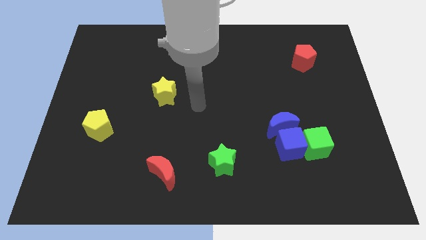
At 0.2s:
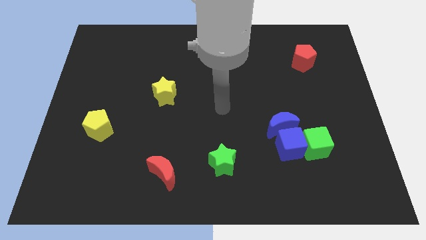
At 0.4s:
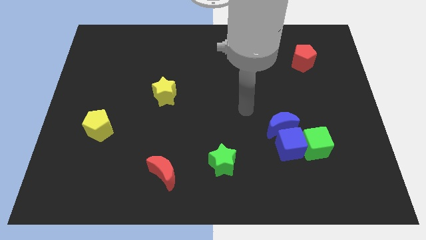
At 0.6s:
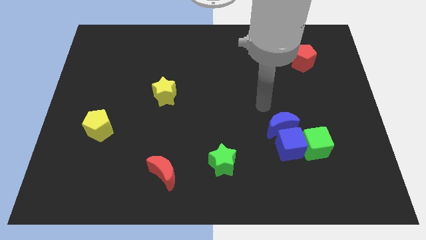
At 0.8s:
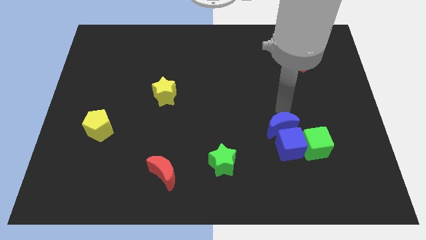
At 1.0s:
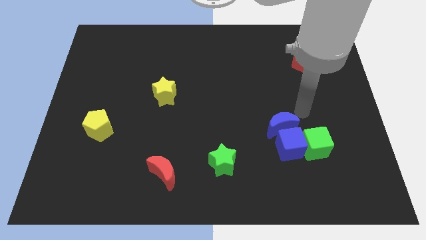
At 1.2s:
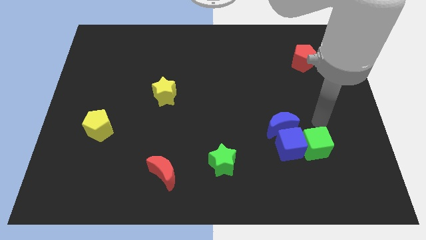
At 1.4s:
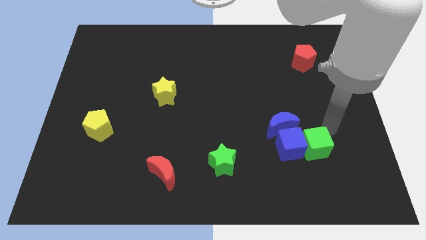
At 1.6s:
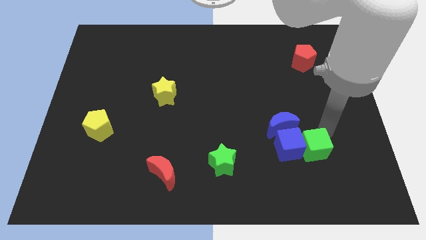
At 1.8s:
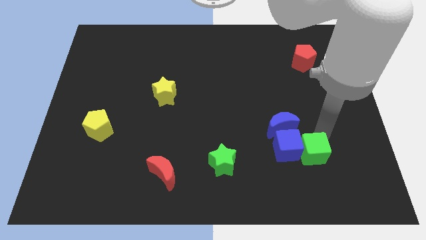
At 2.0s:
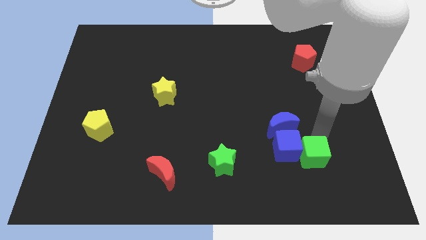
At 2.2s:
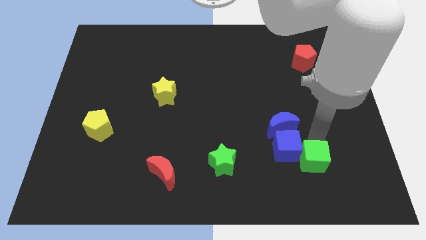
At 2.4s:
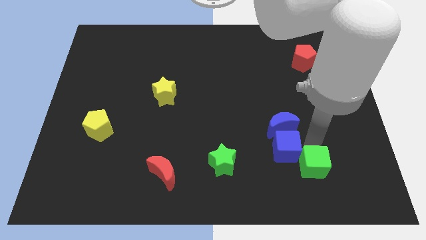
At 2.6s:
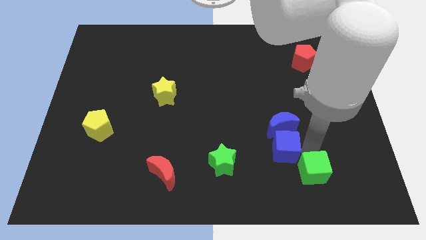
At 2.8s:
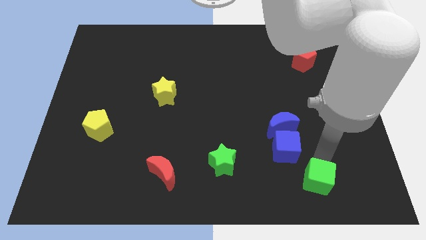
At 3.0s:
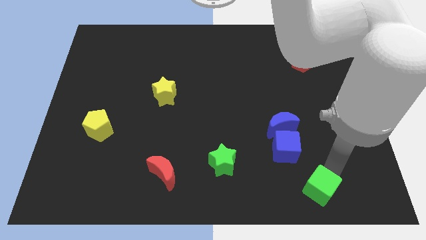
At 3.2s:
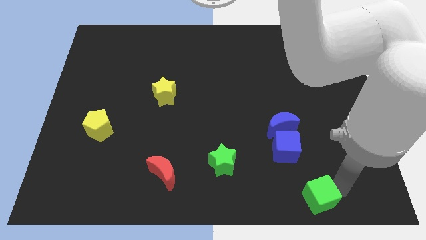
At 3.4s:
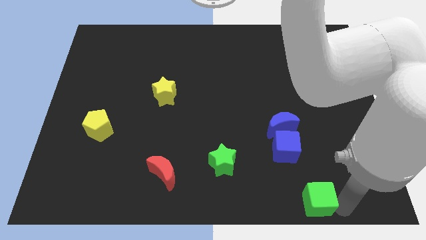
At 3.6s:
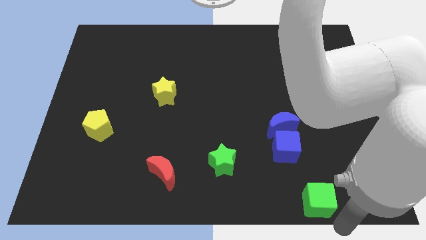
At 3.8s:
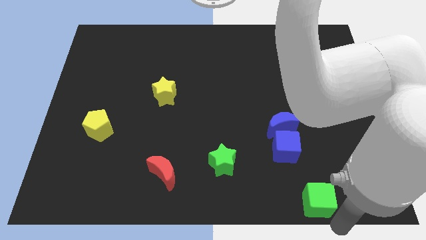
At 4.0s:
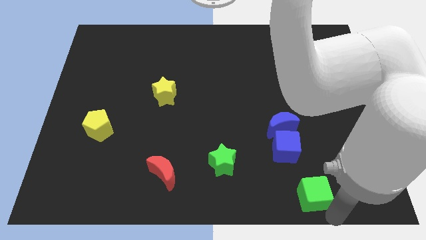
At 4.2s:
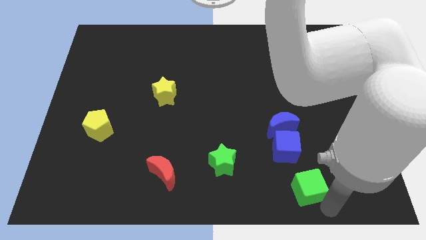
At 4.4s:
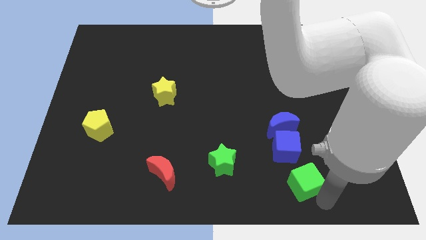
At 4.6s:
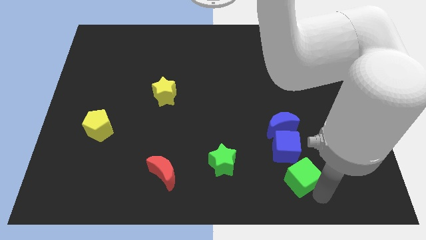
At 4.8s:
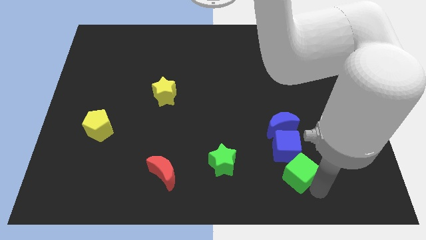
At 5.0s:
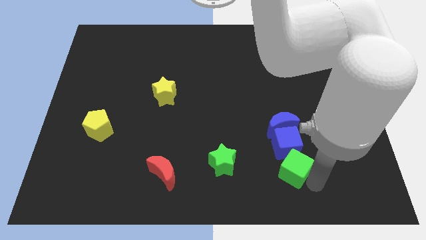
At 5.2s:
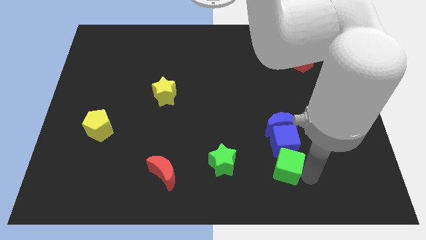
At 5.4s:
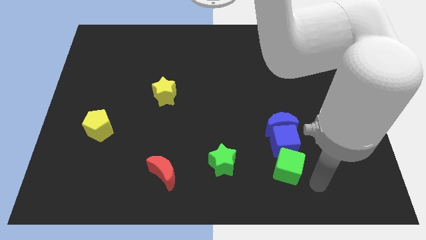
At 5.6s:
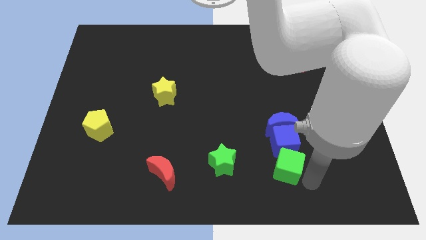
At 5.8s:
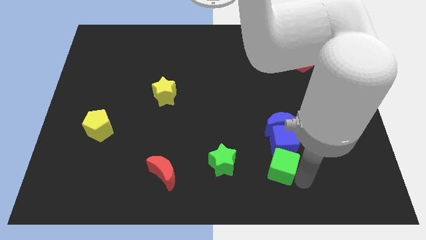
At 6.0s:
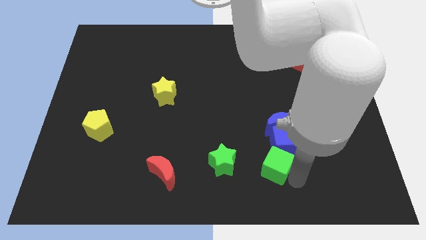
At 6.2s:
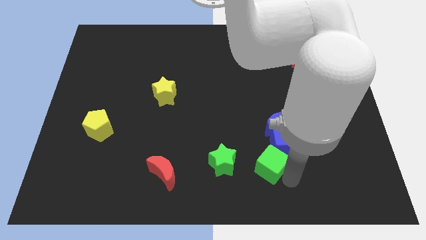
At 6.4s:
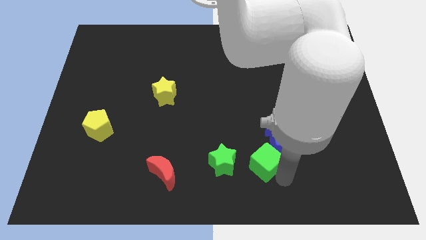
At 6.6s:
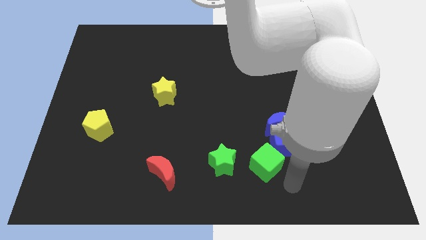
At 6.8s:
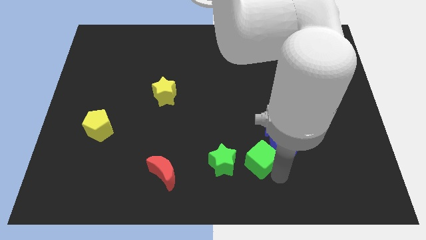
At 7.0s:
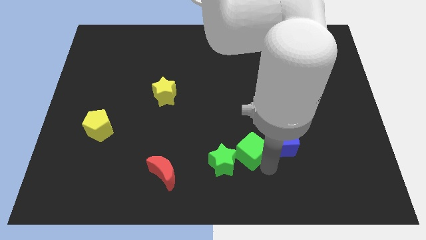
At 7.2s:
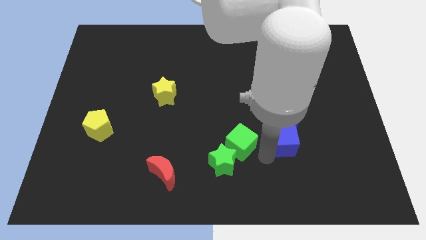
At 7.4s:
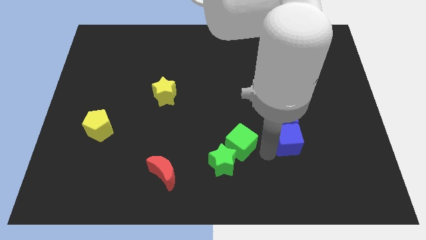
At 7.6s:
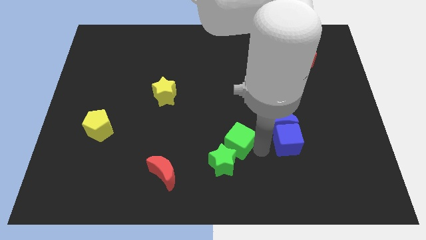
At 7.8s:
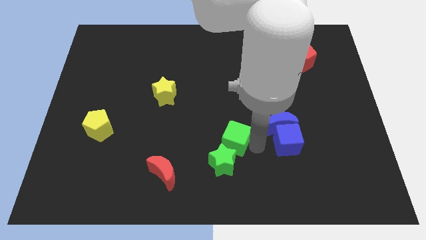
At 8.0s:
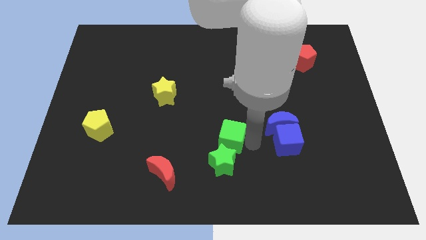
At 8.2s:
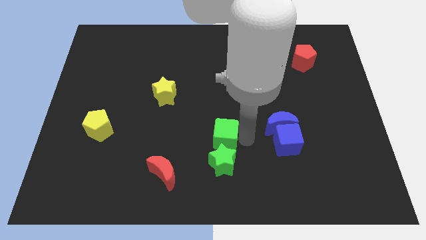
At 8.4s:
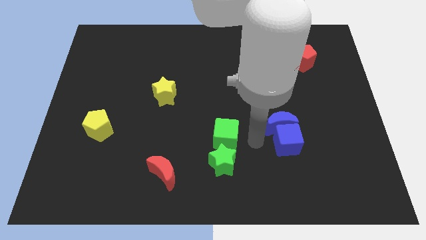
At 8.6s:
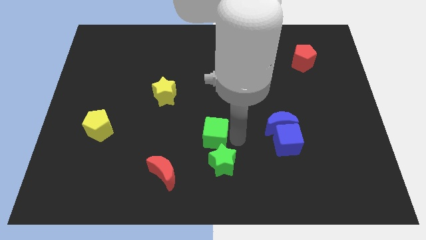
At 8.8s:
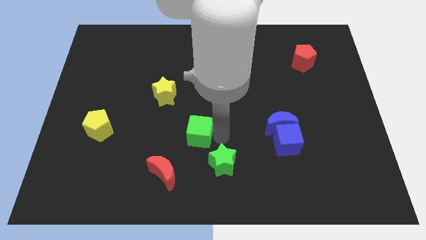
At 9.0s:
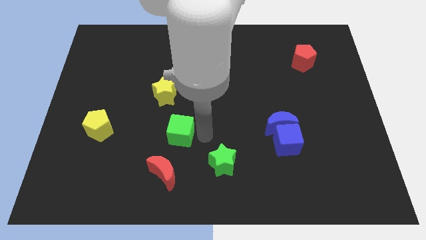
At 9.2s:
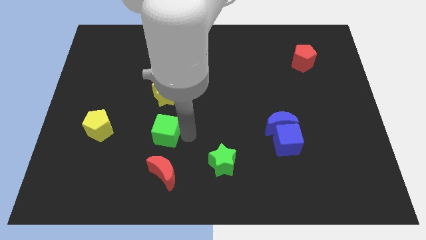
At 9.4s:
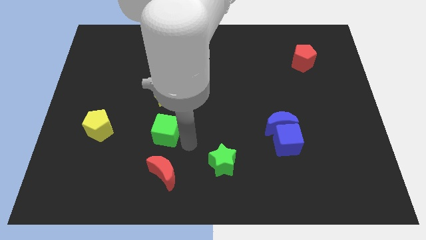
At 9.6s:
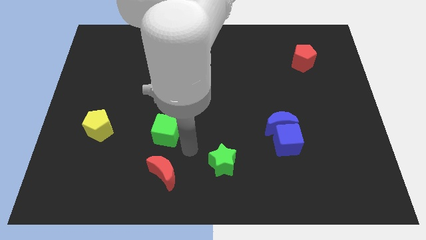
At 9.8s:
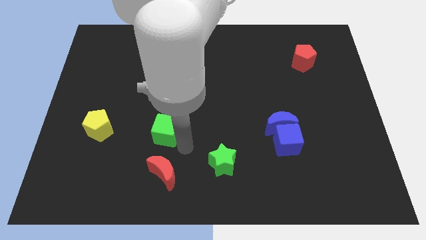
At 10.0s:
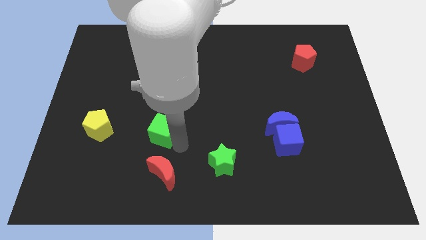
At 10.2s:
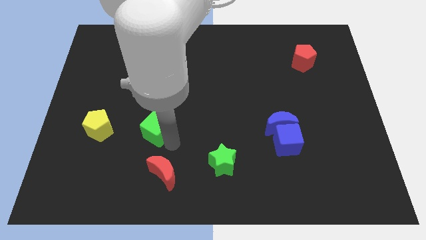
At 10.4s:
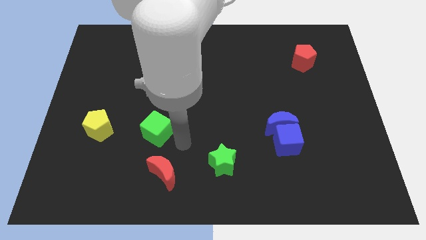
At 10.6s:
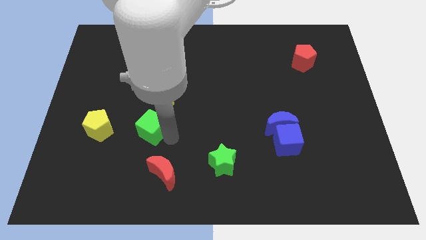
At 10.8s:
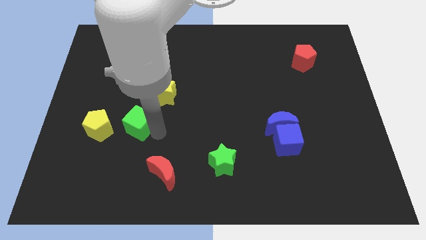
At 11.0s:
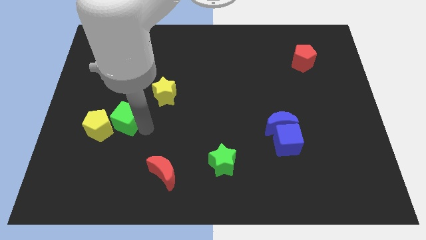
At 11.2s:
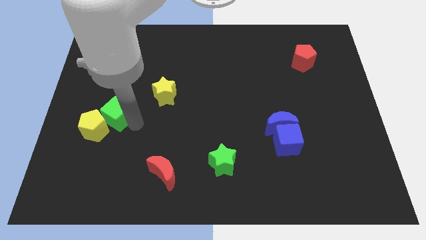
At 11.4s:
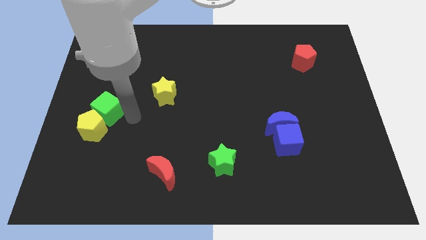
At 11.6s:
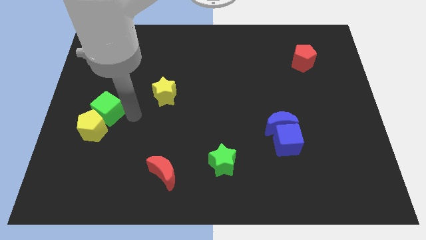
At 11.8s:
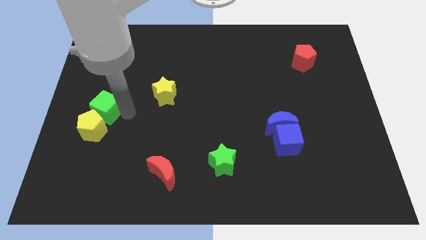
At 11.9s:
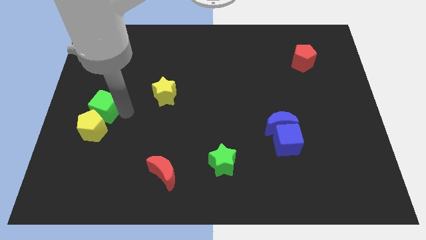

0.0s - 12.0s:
put the green cube to the left side of the board
